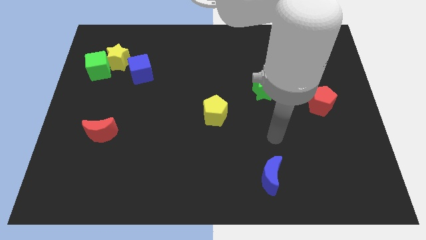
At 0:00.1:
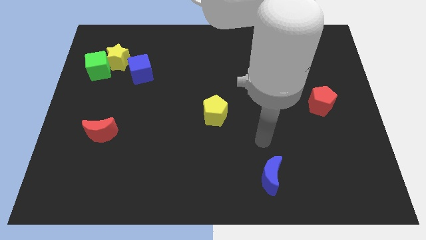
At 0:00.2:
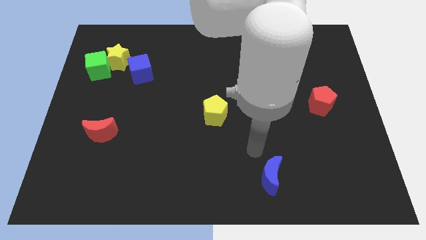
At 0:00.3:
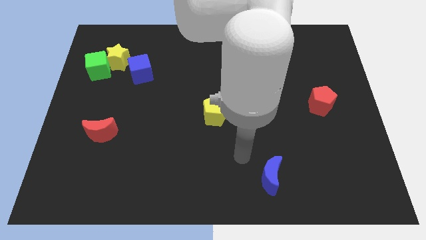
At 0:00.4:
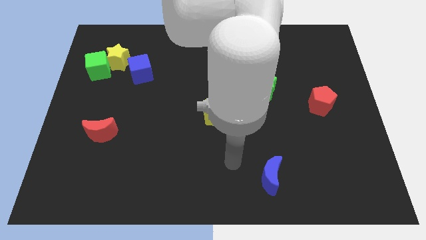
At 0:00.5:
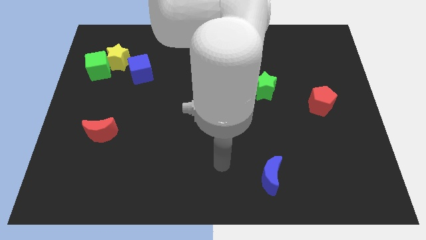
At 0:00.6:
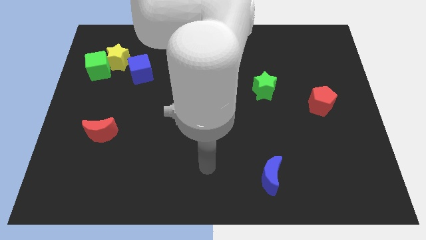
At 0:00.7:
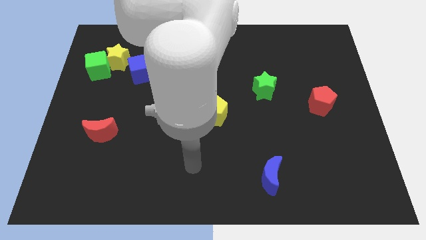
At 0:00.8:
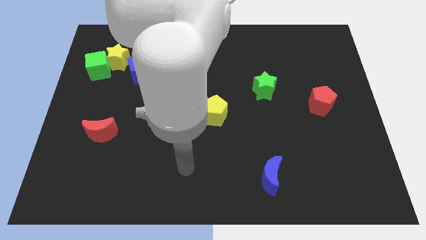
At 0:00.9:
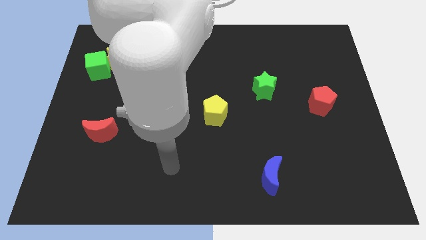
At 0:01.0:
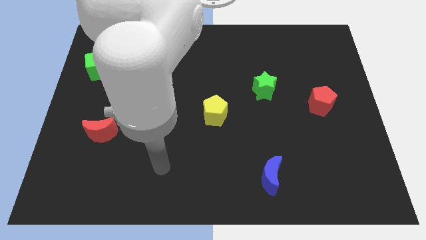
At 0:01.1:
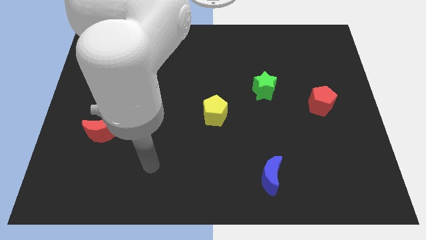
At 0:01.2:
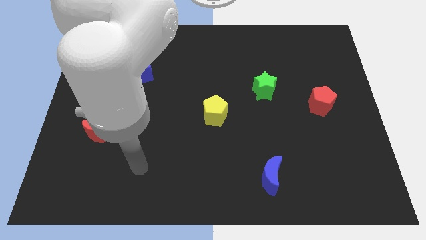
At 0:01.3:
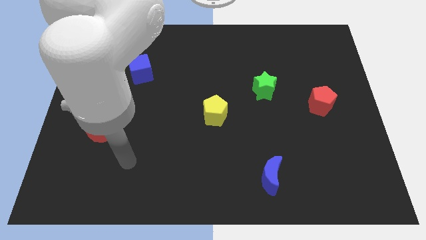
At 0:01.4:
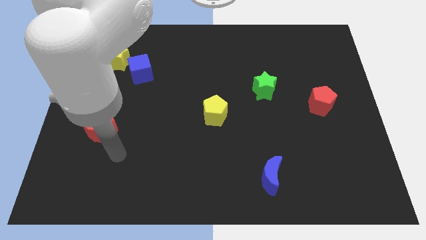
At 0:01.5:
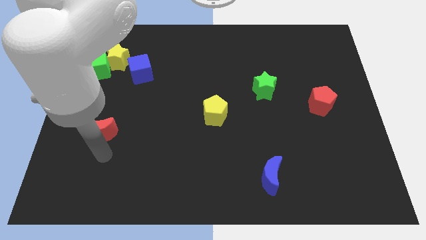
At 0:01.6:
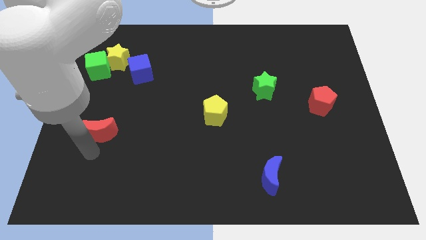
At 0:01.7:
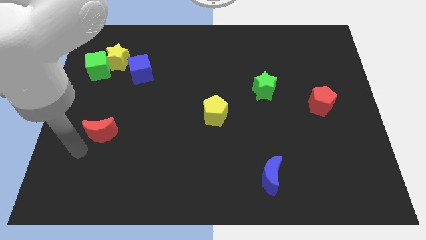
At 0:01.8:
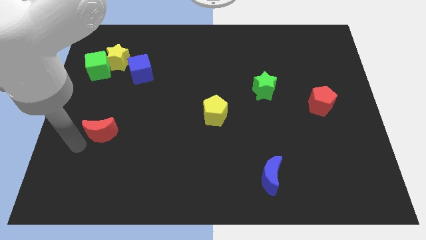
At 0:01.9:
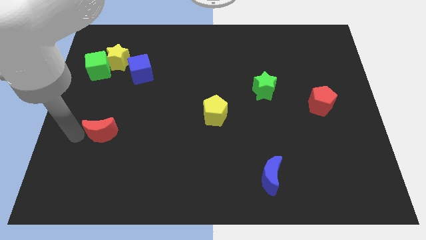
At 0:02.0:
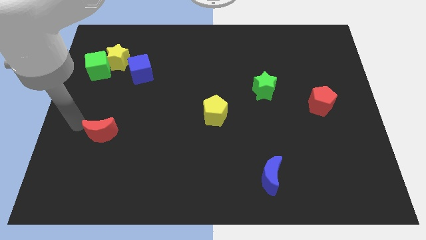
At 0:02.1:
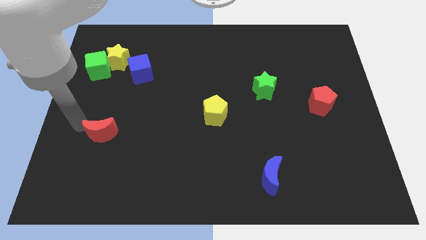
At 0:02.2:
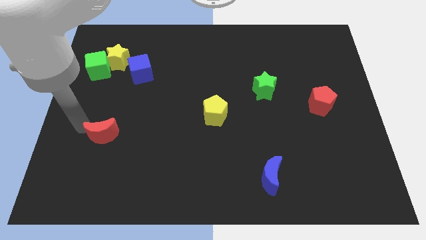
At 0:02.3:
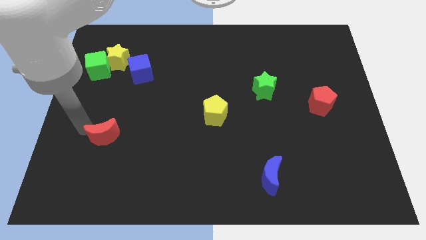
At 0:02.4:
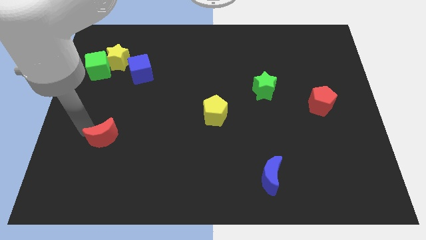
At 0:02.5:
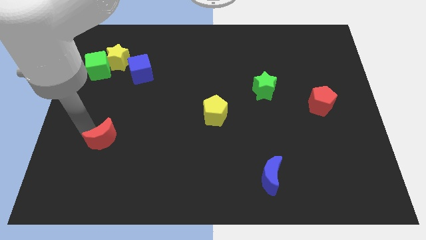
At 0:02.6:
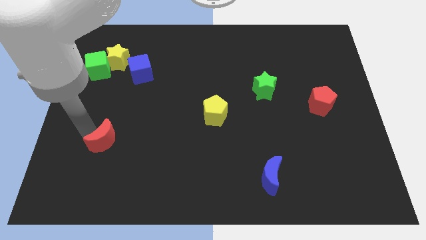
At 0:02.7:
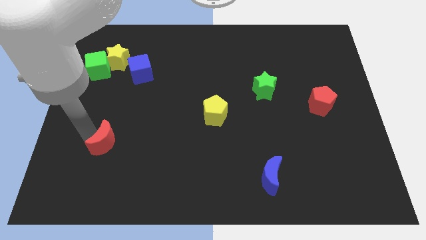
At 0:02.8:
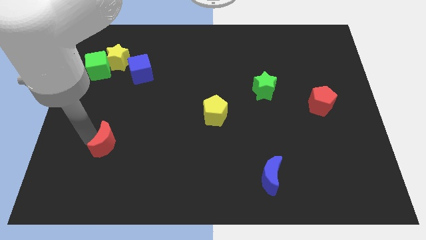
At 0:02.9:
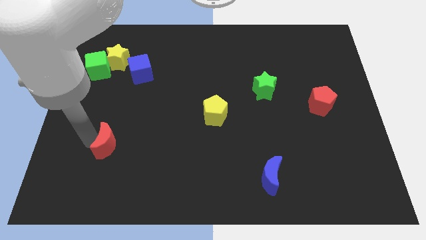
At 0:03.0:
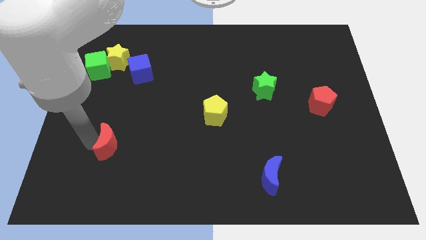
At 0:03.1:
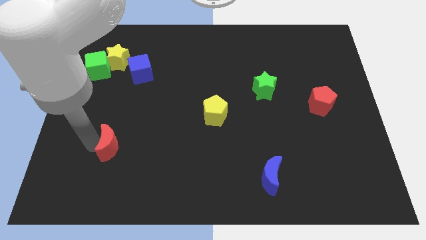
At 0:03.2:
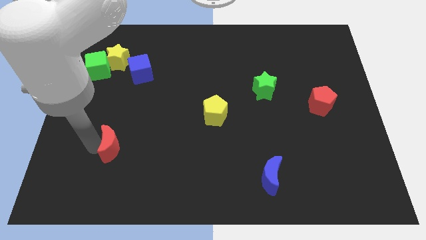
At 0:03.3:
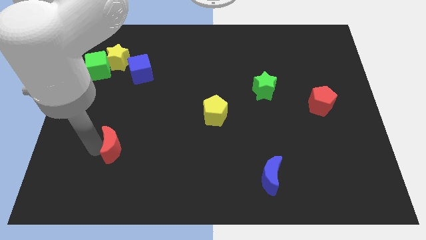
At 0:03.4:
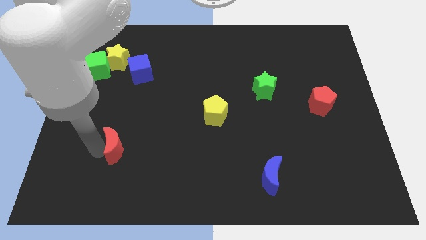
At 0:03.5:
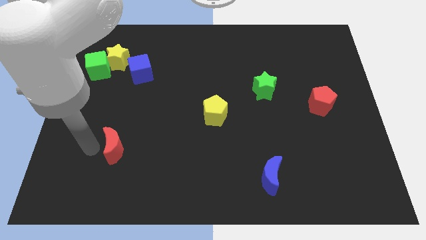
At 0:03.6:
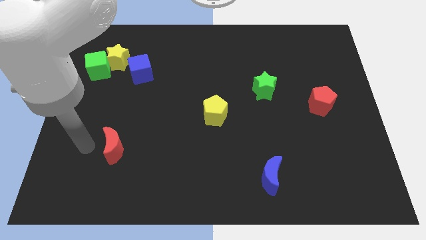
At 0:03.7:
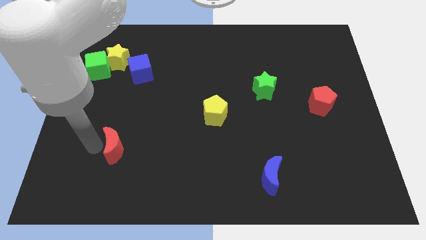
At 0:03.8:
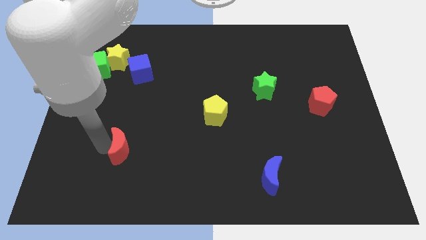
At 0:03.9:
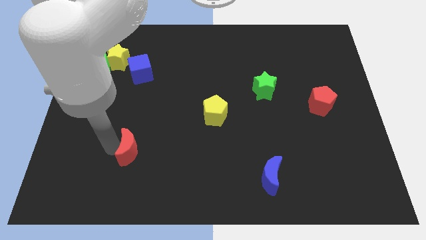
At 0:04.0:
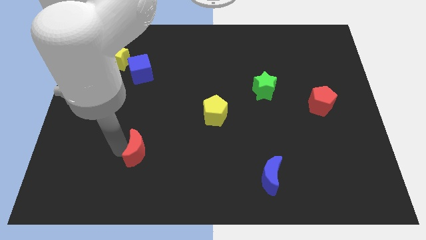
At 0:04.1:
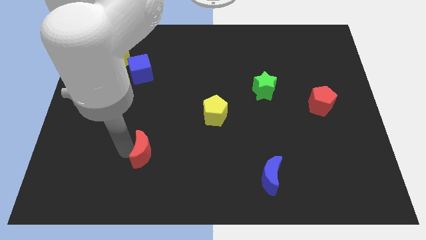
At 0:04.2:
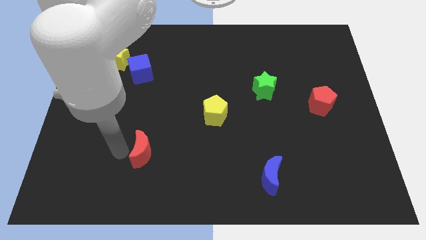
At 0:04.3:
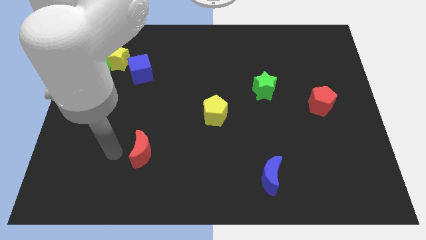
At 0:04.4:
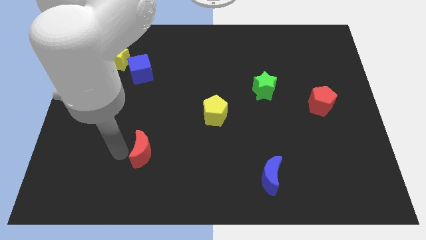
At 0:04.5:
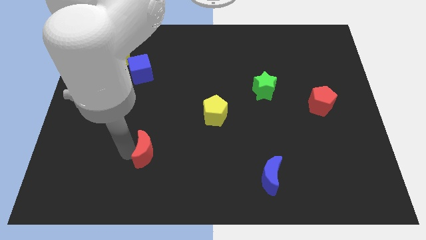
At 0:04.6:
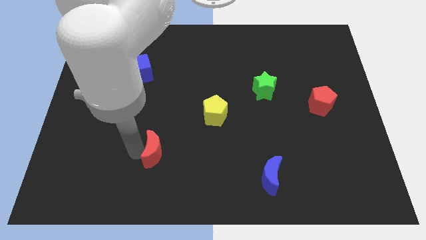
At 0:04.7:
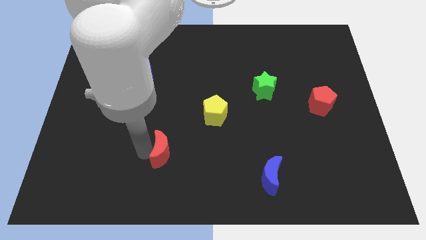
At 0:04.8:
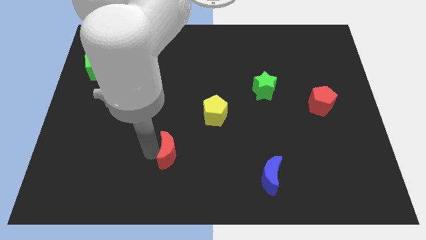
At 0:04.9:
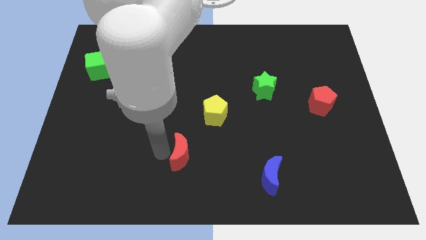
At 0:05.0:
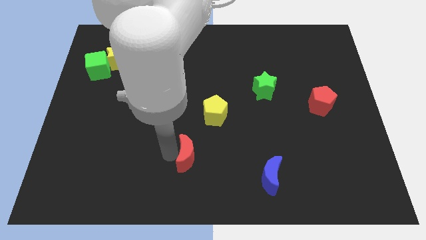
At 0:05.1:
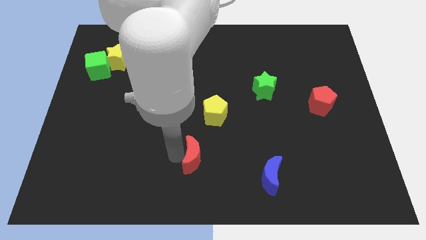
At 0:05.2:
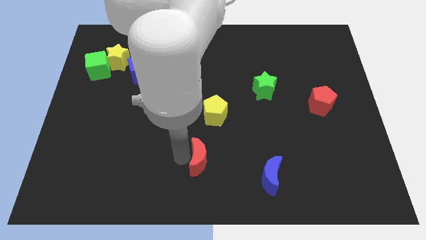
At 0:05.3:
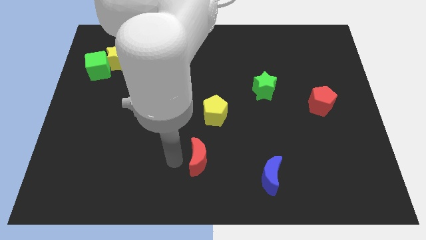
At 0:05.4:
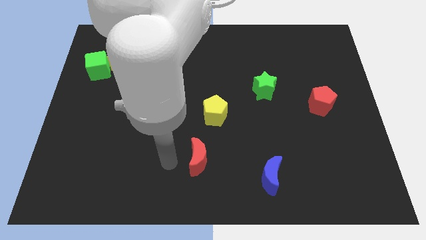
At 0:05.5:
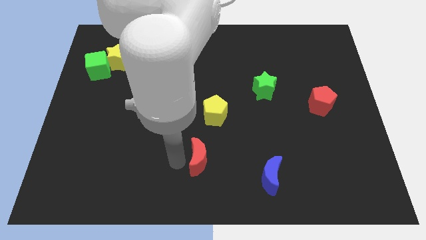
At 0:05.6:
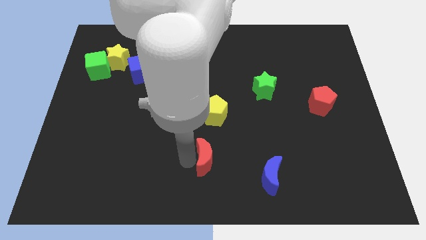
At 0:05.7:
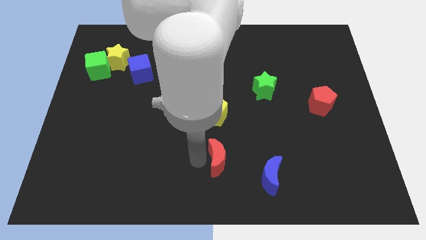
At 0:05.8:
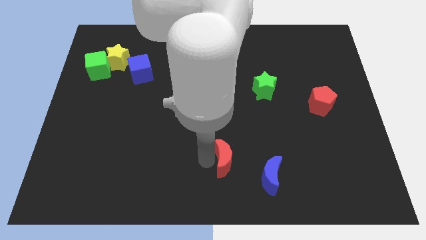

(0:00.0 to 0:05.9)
push the red moon to the top left of the blue moon
